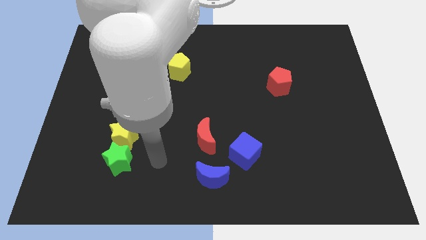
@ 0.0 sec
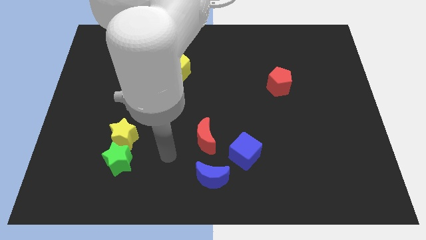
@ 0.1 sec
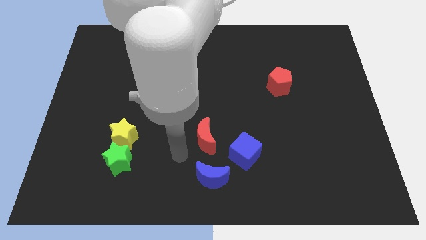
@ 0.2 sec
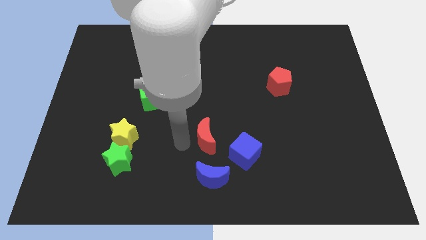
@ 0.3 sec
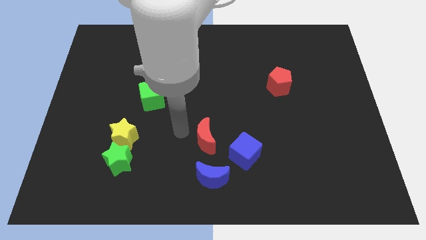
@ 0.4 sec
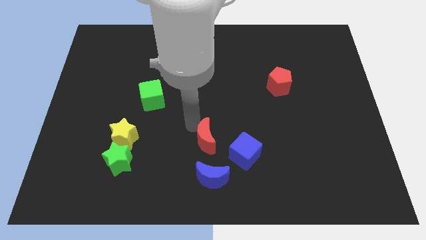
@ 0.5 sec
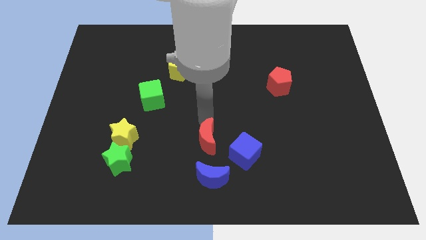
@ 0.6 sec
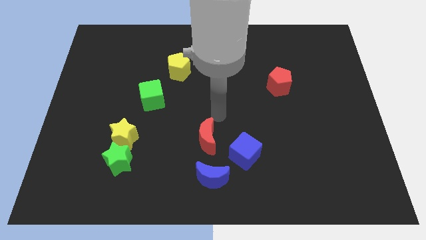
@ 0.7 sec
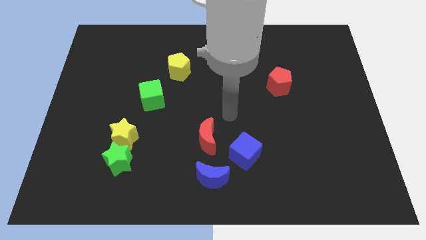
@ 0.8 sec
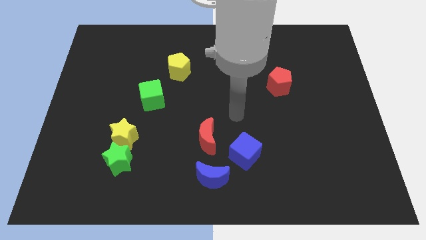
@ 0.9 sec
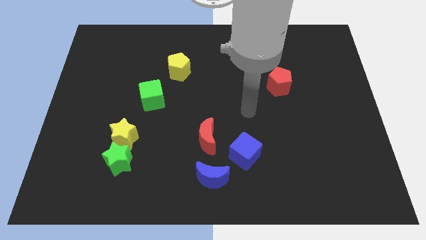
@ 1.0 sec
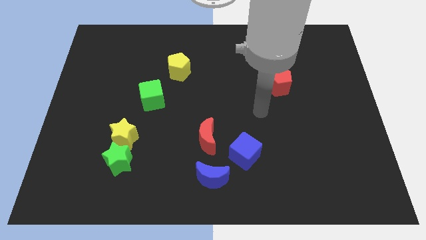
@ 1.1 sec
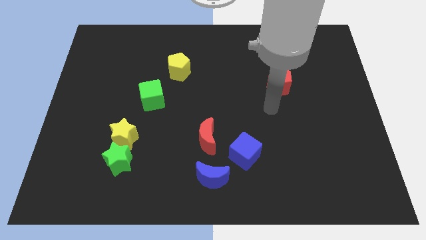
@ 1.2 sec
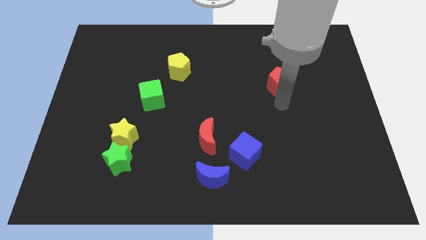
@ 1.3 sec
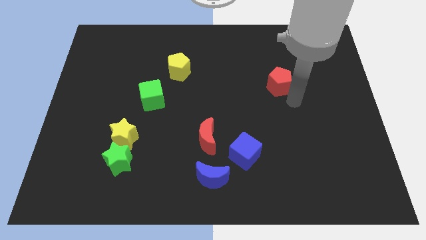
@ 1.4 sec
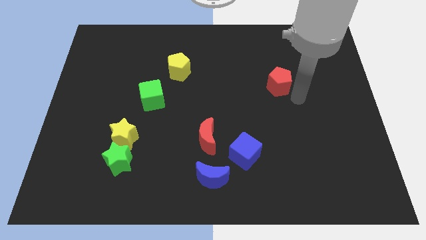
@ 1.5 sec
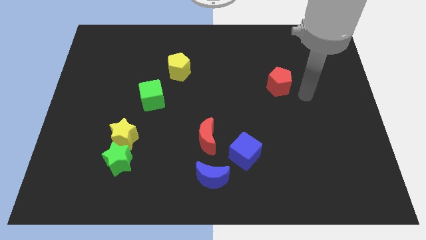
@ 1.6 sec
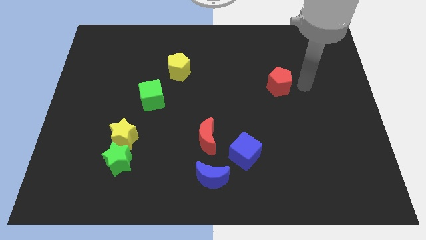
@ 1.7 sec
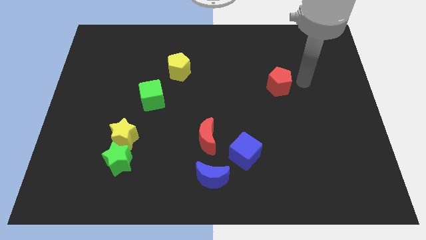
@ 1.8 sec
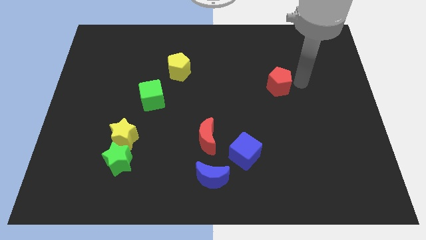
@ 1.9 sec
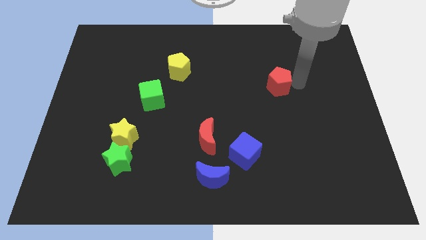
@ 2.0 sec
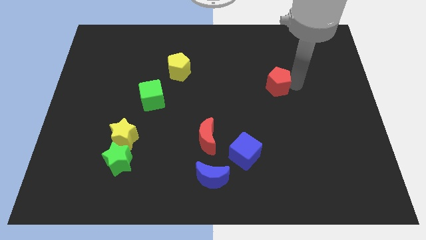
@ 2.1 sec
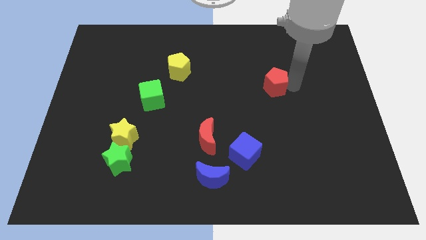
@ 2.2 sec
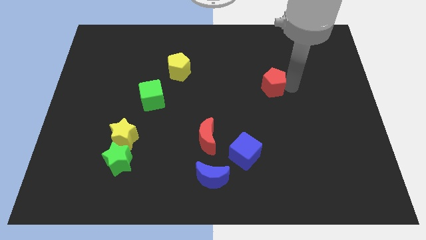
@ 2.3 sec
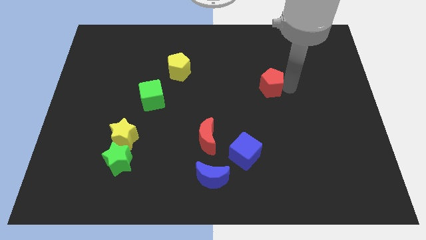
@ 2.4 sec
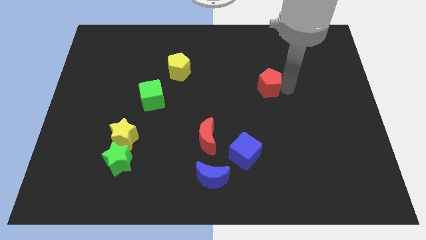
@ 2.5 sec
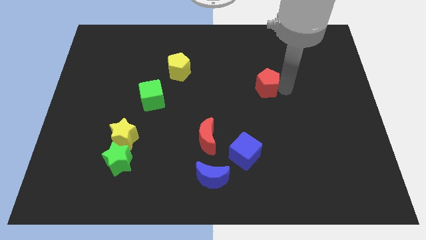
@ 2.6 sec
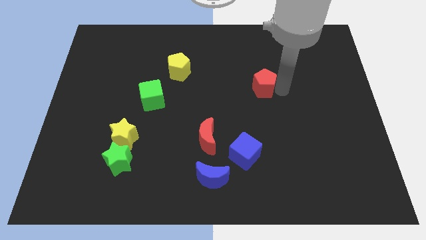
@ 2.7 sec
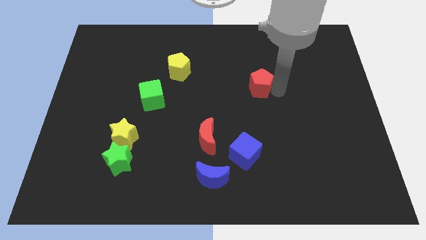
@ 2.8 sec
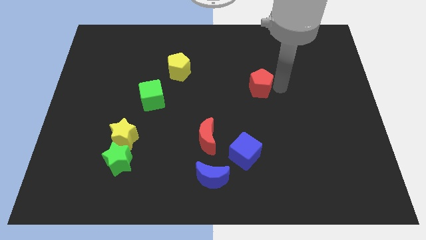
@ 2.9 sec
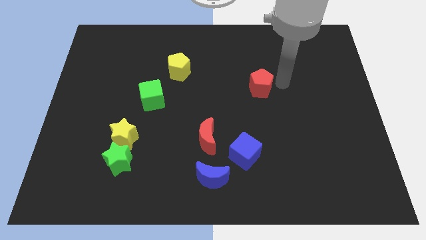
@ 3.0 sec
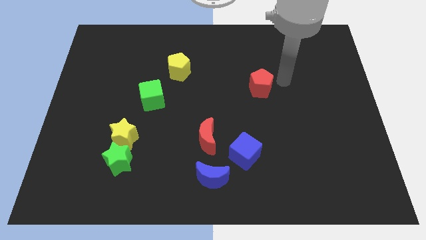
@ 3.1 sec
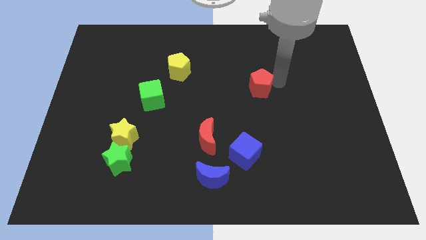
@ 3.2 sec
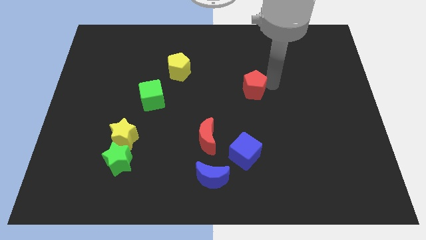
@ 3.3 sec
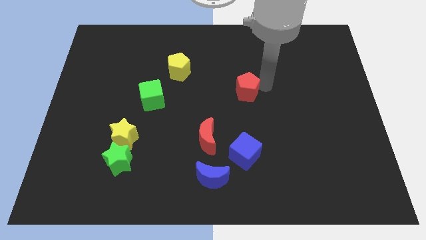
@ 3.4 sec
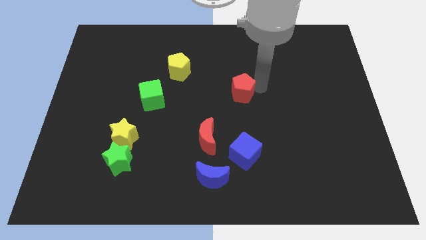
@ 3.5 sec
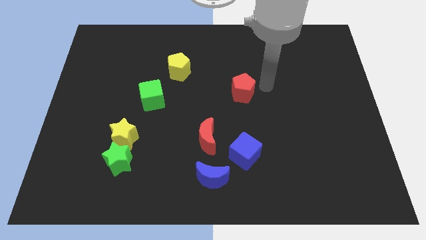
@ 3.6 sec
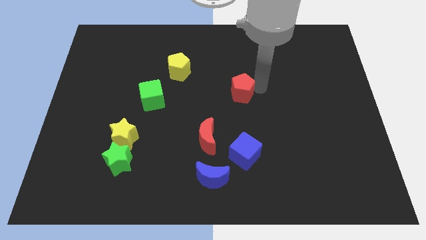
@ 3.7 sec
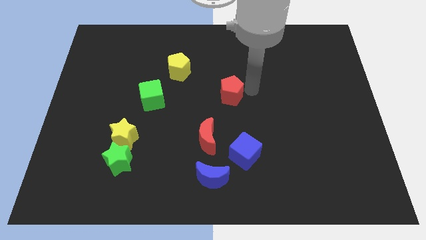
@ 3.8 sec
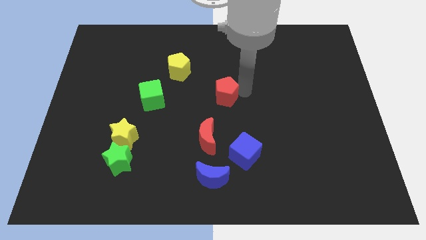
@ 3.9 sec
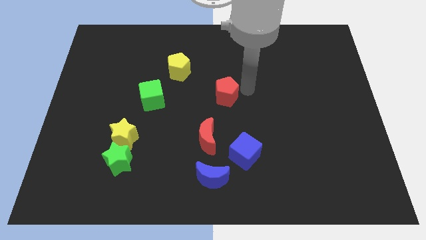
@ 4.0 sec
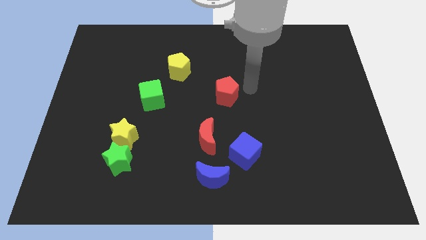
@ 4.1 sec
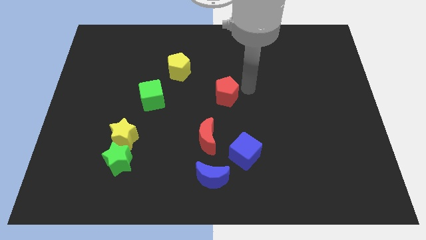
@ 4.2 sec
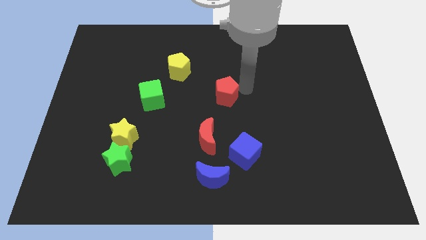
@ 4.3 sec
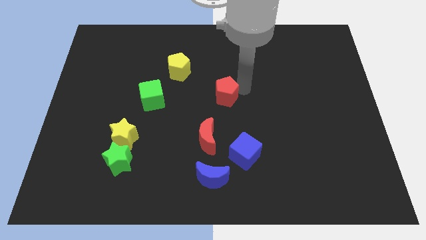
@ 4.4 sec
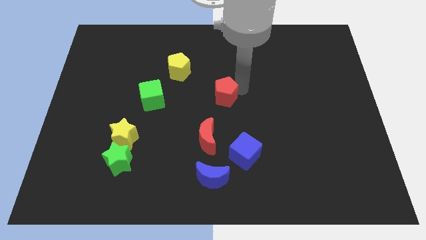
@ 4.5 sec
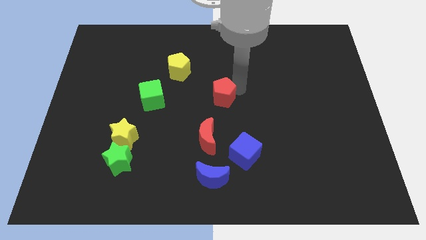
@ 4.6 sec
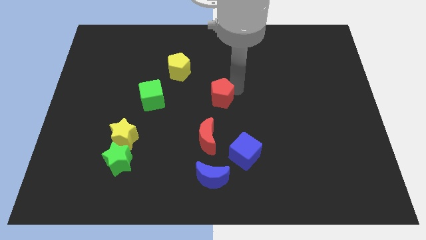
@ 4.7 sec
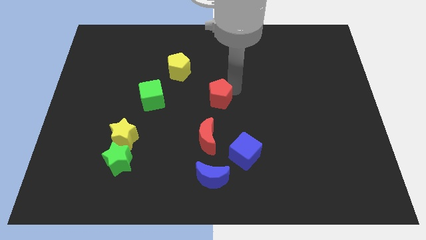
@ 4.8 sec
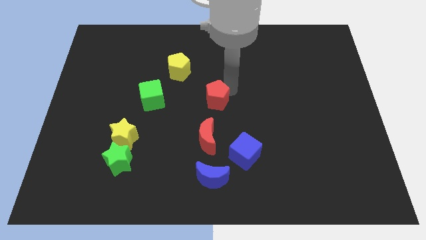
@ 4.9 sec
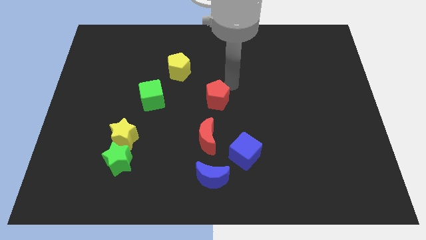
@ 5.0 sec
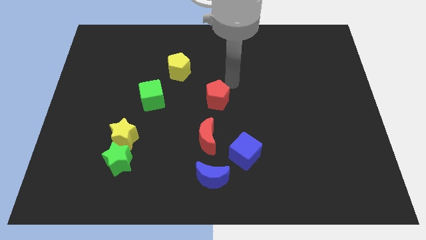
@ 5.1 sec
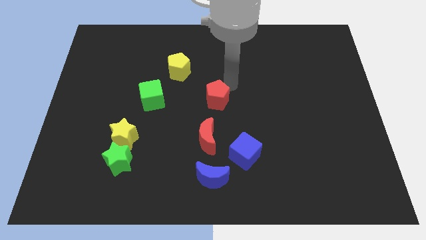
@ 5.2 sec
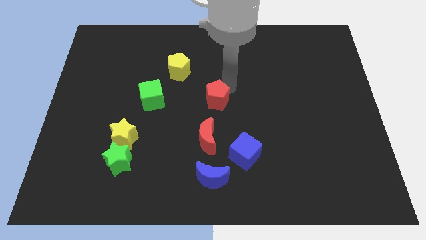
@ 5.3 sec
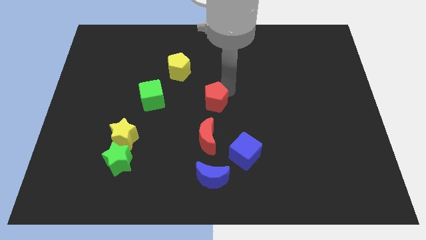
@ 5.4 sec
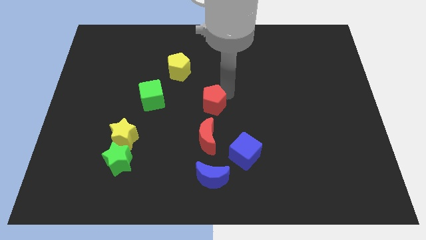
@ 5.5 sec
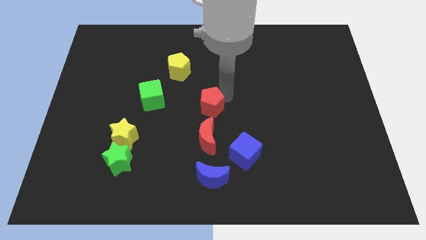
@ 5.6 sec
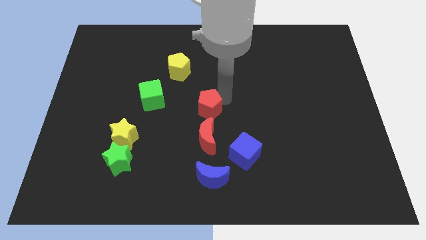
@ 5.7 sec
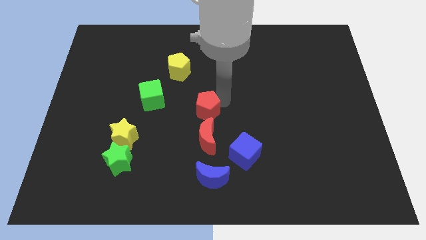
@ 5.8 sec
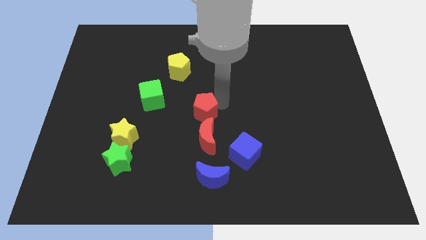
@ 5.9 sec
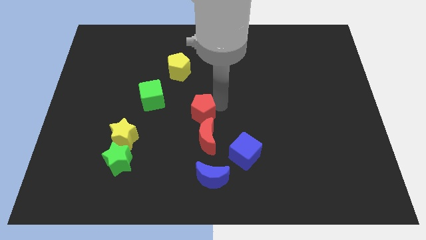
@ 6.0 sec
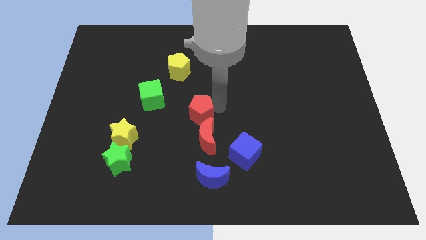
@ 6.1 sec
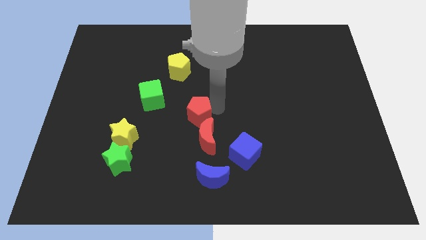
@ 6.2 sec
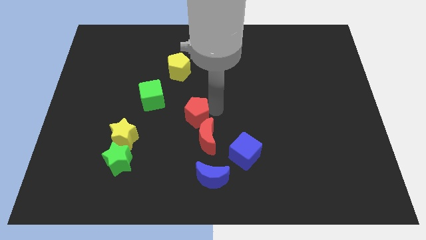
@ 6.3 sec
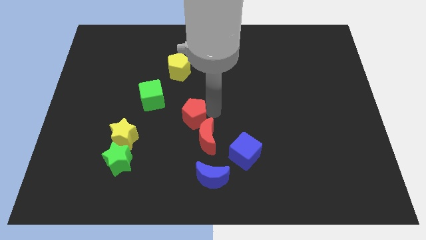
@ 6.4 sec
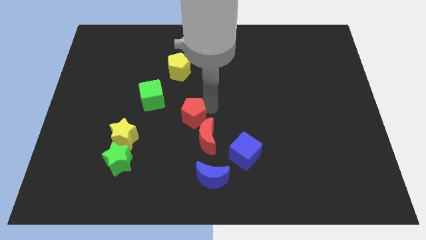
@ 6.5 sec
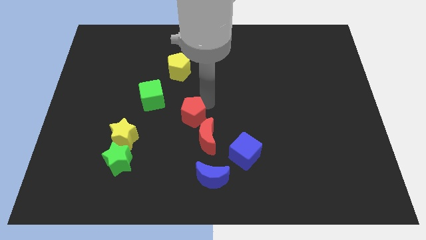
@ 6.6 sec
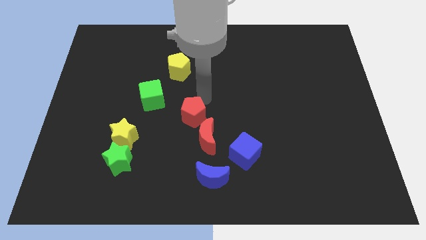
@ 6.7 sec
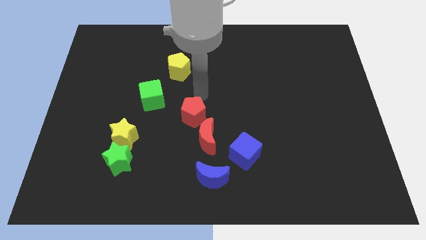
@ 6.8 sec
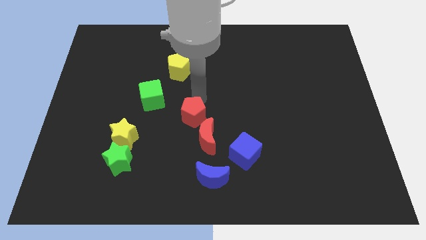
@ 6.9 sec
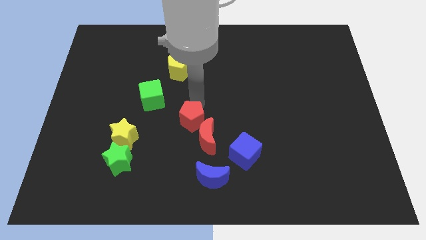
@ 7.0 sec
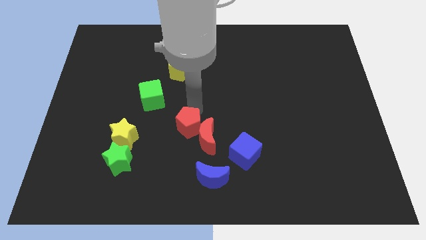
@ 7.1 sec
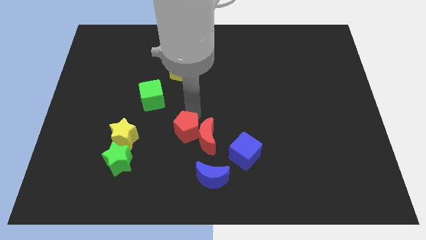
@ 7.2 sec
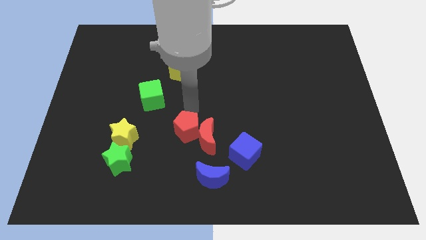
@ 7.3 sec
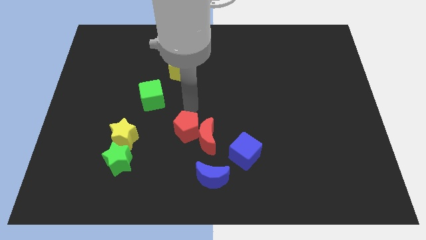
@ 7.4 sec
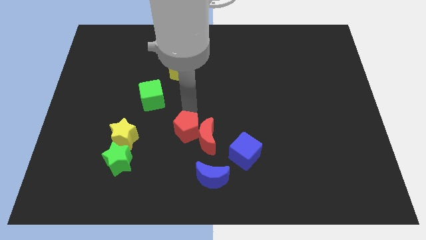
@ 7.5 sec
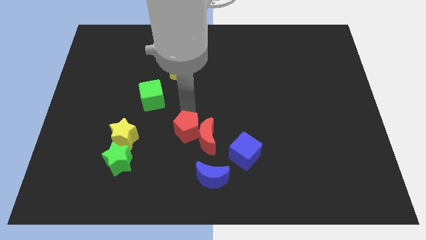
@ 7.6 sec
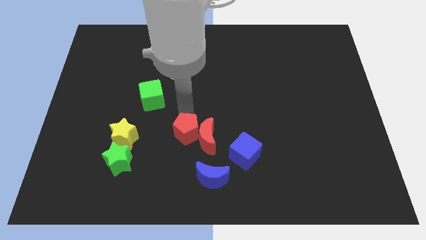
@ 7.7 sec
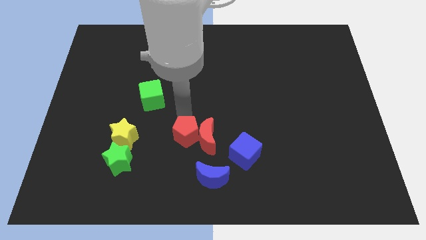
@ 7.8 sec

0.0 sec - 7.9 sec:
move the red pentagon to the bottom left of the red moon
